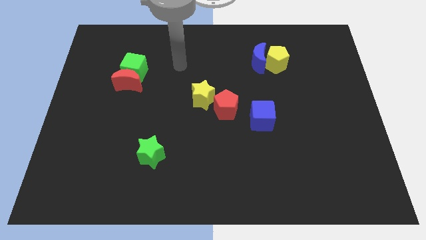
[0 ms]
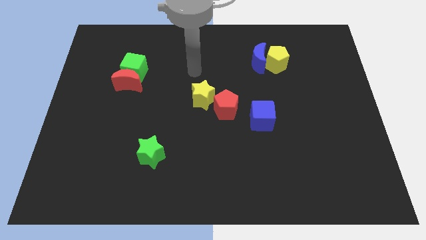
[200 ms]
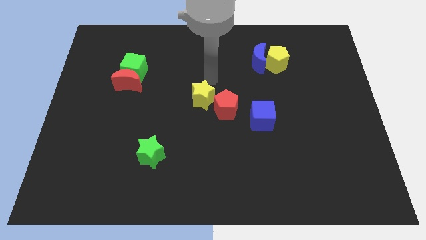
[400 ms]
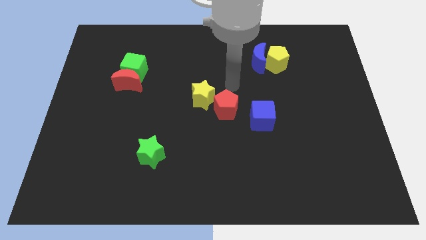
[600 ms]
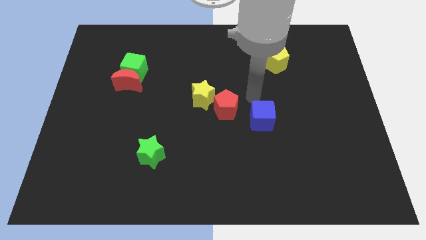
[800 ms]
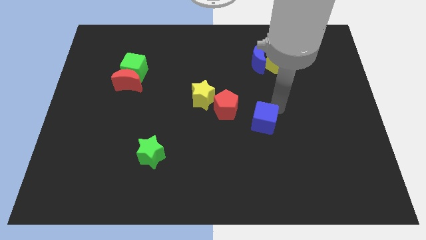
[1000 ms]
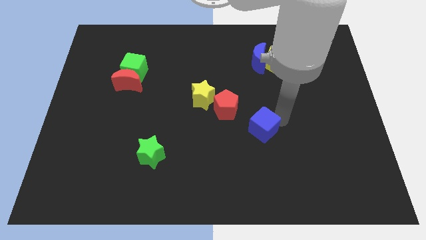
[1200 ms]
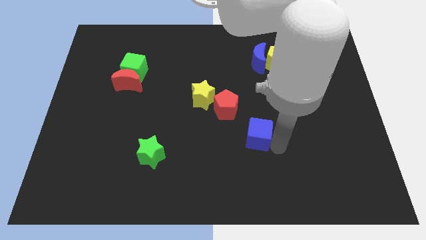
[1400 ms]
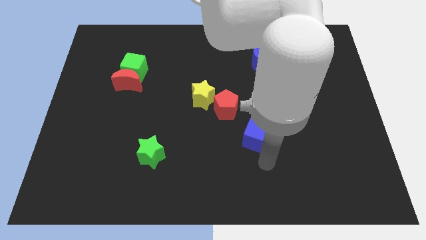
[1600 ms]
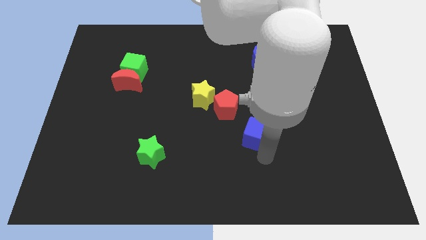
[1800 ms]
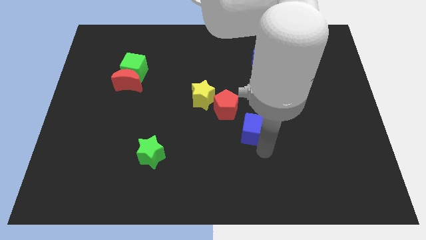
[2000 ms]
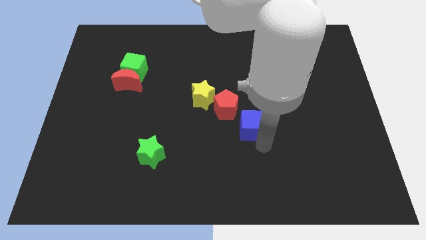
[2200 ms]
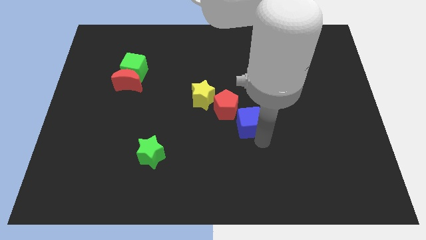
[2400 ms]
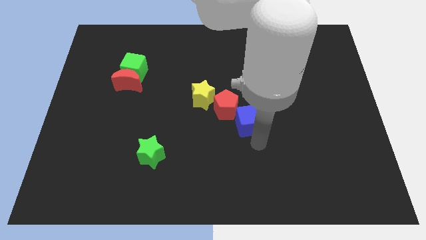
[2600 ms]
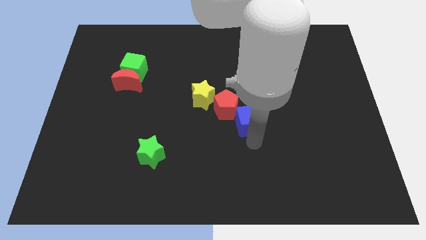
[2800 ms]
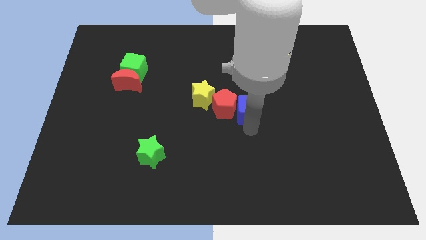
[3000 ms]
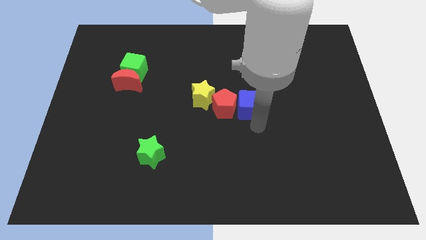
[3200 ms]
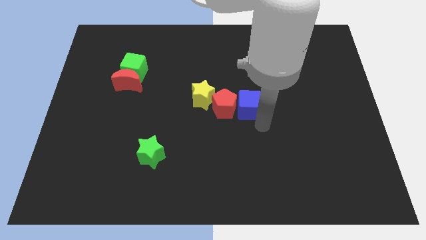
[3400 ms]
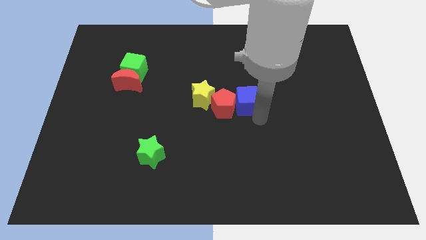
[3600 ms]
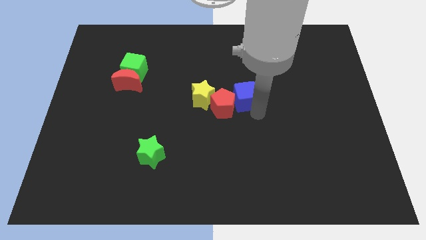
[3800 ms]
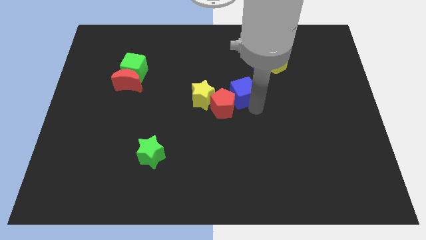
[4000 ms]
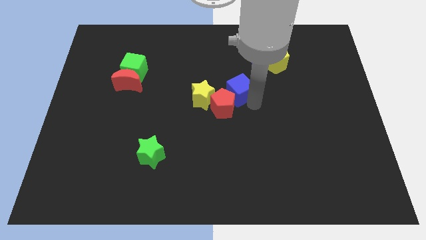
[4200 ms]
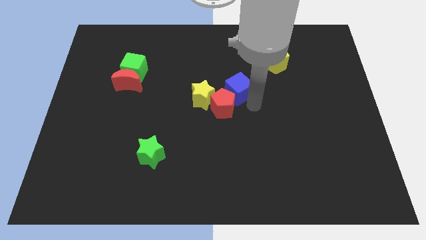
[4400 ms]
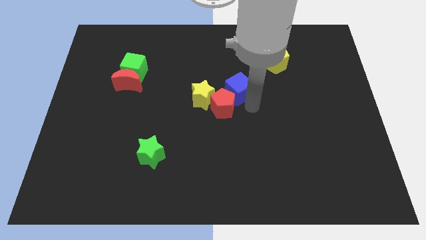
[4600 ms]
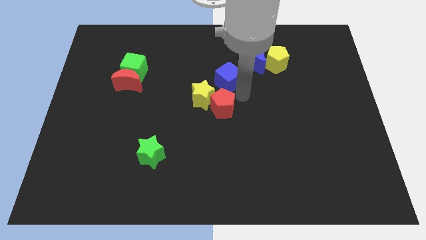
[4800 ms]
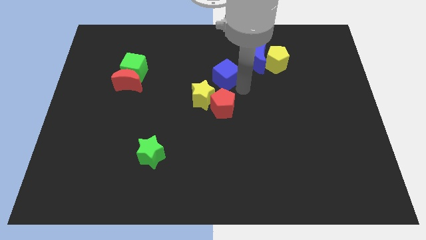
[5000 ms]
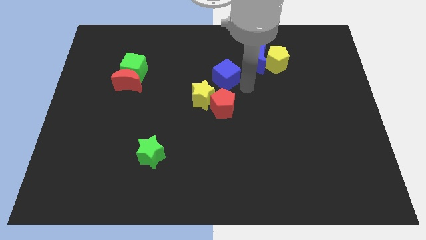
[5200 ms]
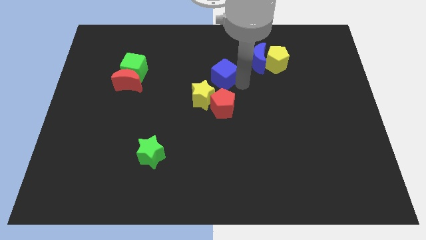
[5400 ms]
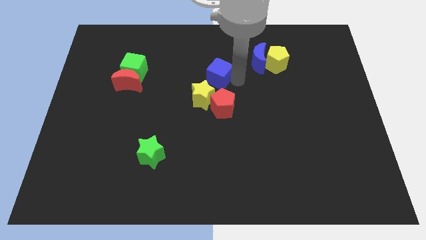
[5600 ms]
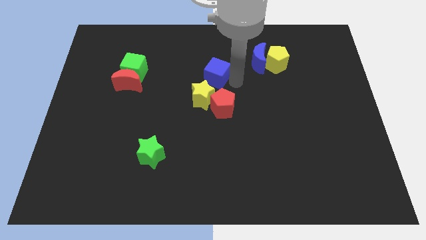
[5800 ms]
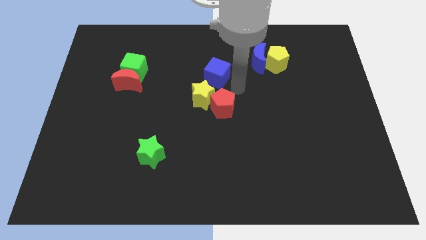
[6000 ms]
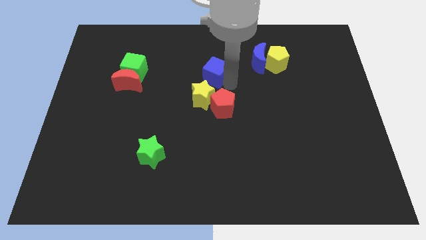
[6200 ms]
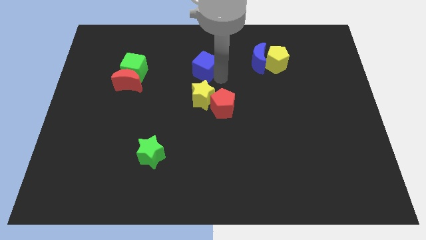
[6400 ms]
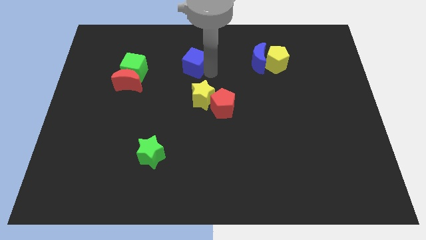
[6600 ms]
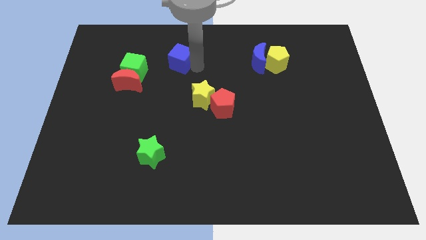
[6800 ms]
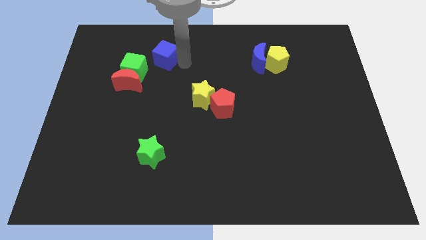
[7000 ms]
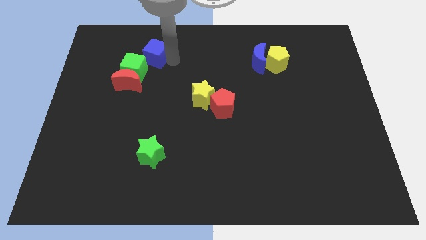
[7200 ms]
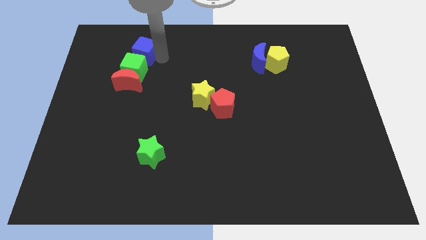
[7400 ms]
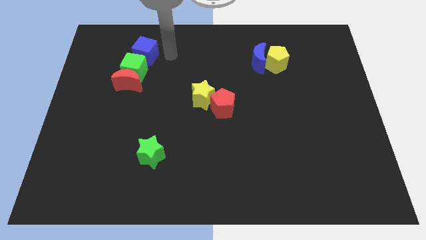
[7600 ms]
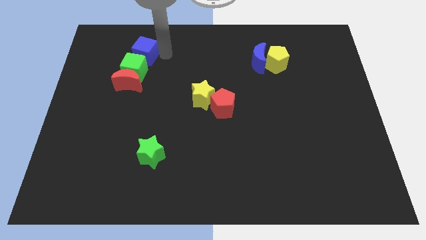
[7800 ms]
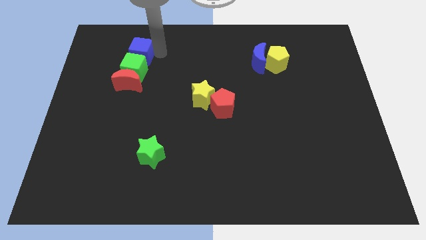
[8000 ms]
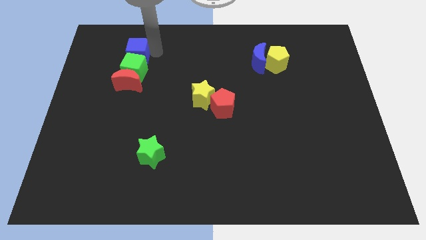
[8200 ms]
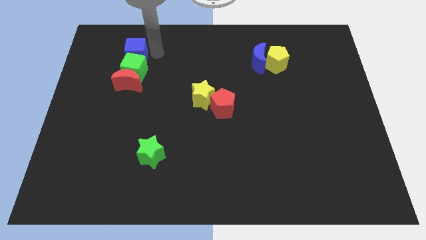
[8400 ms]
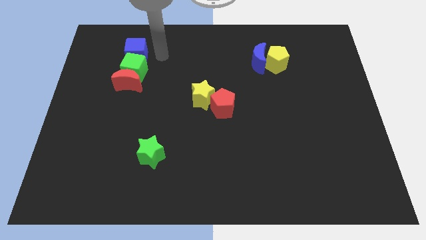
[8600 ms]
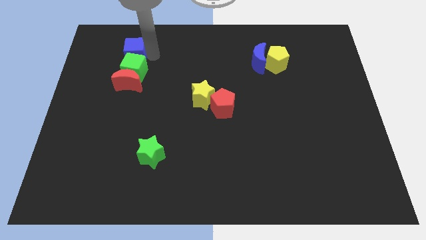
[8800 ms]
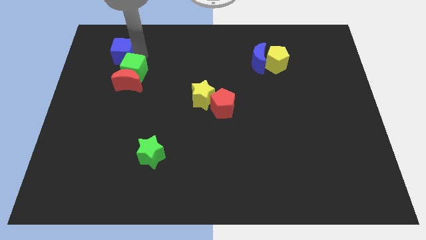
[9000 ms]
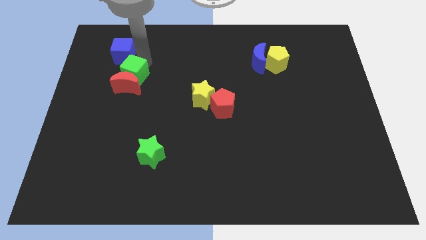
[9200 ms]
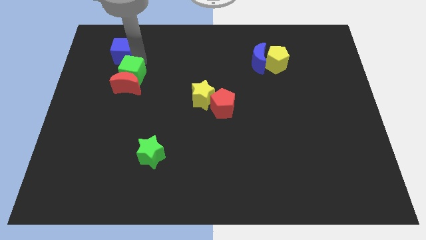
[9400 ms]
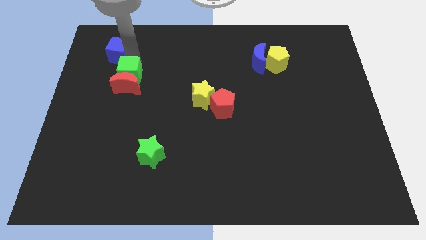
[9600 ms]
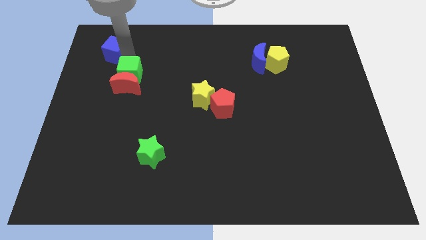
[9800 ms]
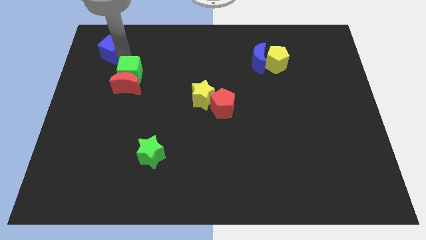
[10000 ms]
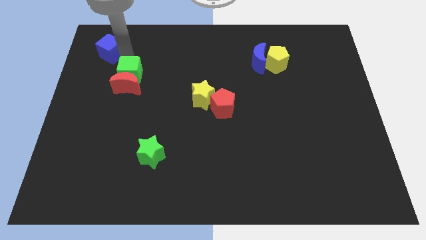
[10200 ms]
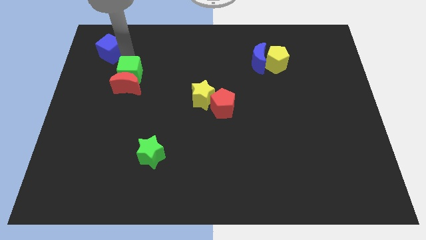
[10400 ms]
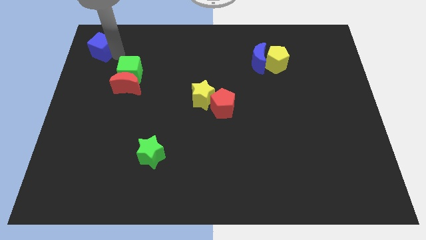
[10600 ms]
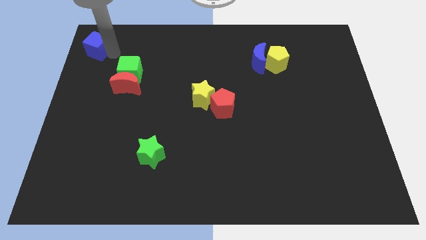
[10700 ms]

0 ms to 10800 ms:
move the blue cube to the top left corner

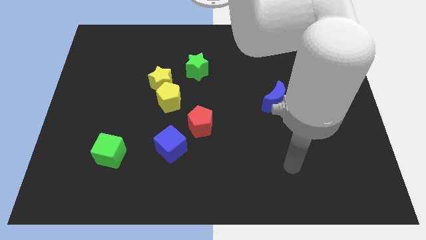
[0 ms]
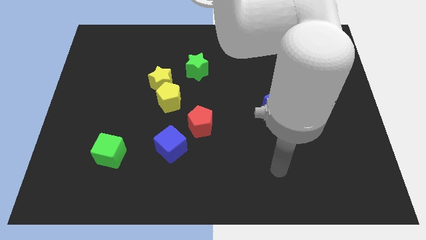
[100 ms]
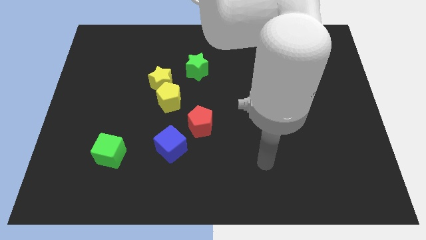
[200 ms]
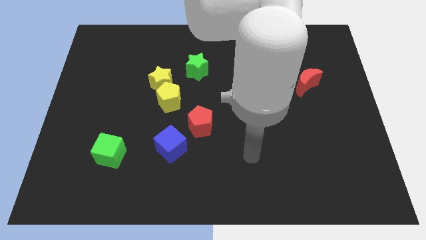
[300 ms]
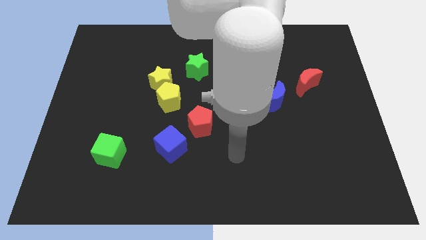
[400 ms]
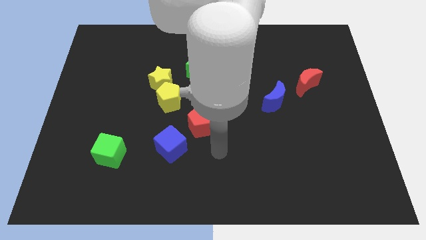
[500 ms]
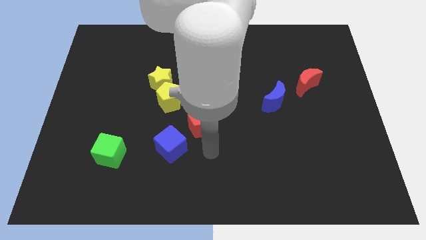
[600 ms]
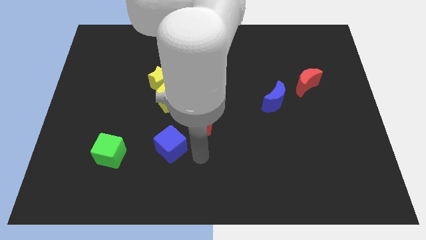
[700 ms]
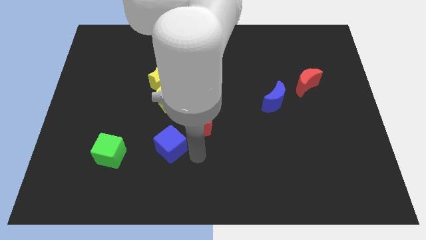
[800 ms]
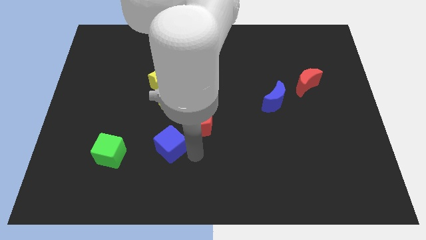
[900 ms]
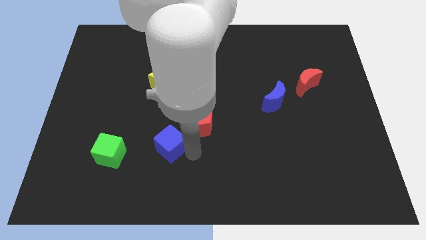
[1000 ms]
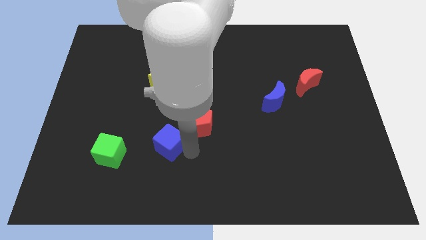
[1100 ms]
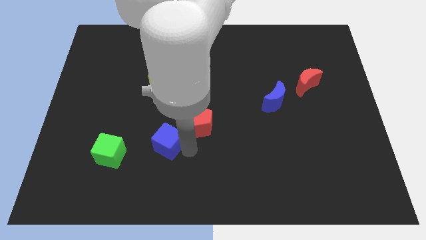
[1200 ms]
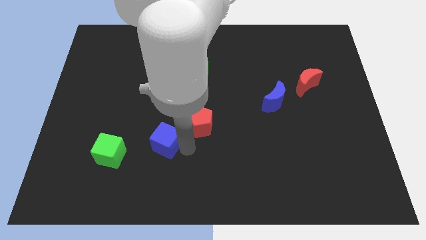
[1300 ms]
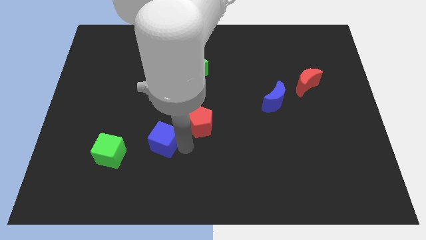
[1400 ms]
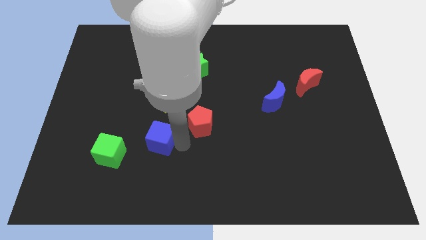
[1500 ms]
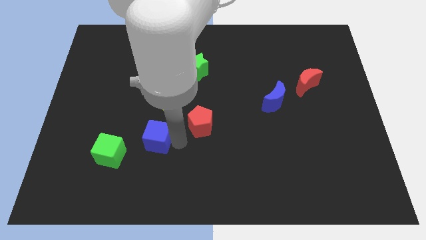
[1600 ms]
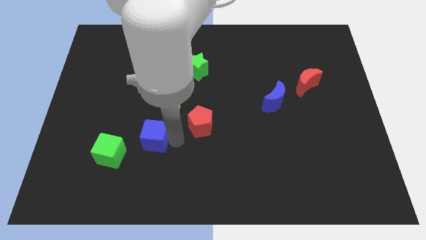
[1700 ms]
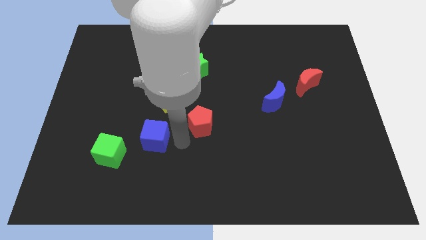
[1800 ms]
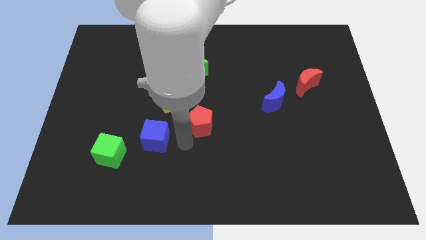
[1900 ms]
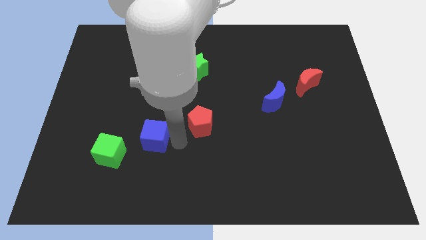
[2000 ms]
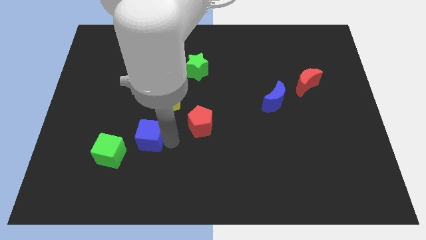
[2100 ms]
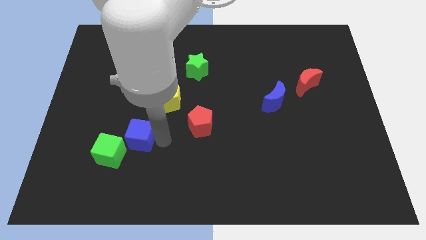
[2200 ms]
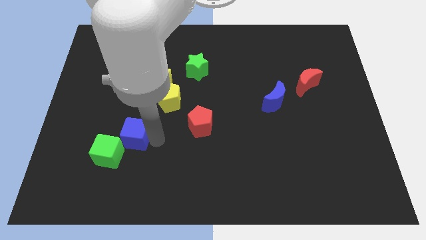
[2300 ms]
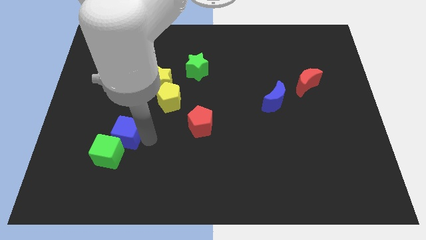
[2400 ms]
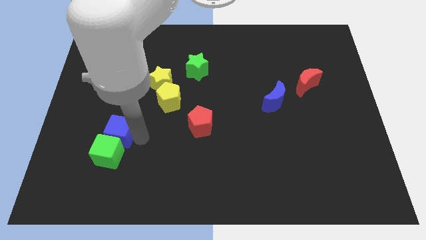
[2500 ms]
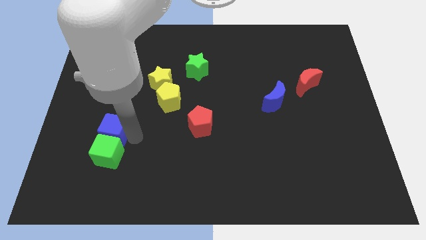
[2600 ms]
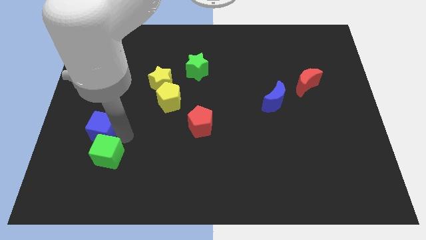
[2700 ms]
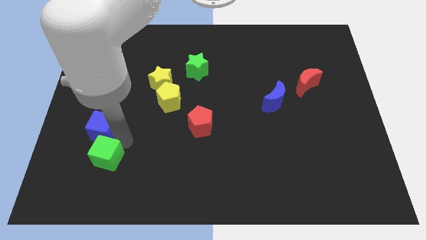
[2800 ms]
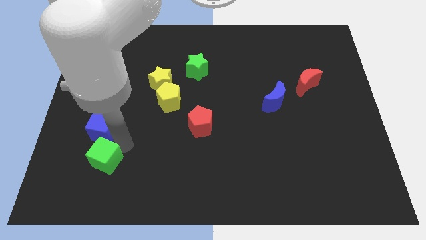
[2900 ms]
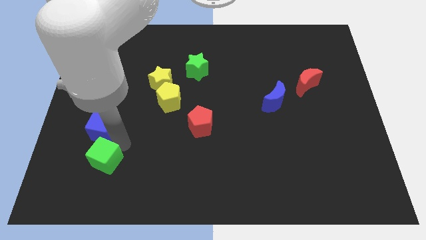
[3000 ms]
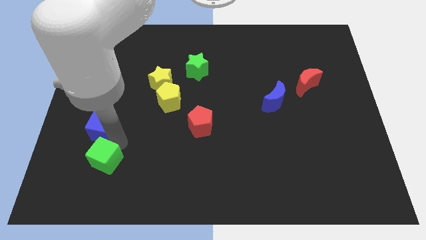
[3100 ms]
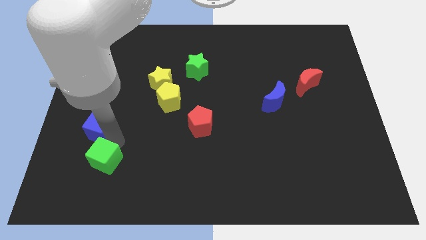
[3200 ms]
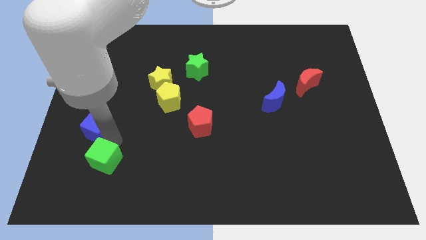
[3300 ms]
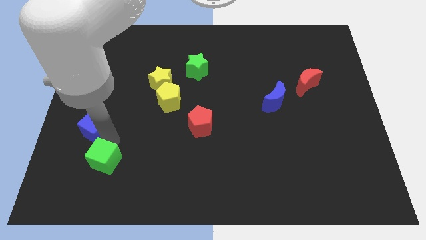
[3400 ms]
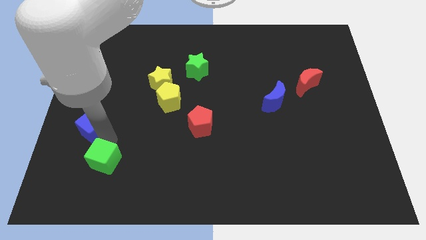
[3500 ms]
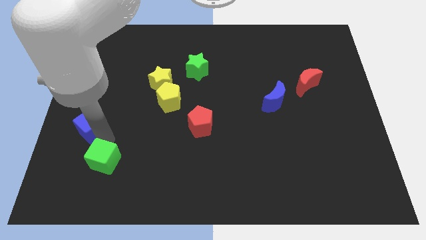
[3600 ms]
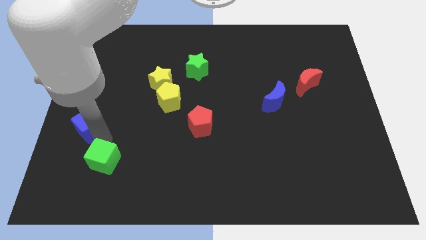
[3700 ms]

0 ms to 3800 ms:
push the blue cube to the center left
